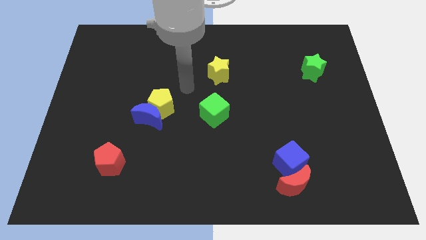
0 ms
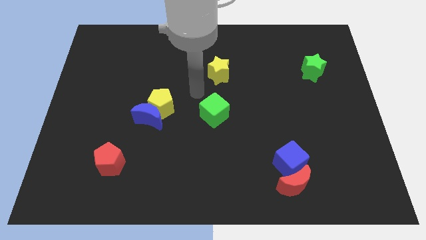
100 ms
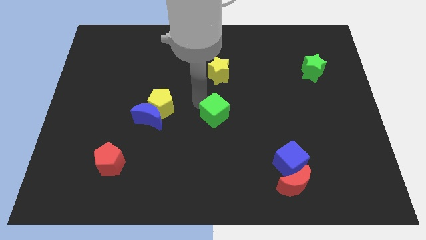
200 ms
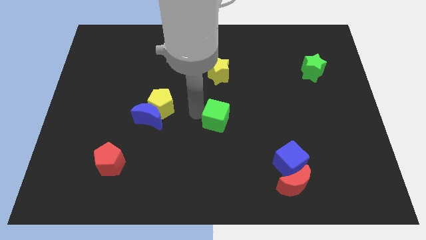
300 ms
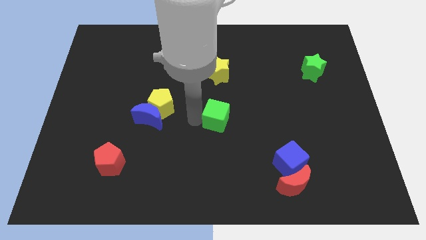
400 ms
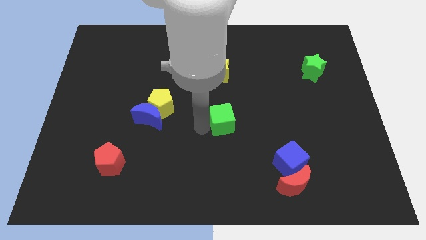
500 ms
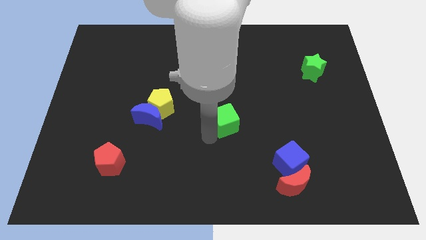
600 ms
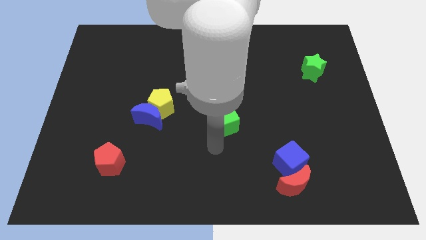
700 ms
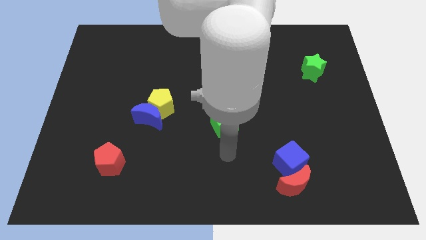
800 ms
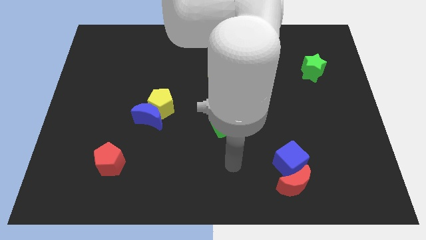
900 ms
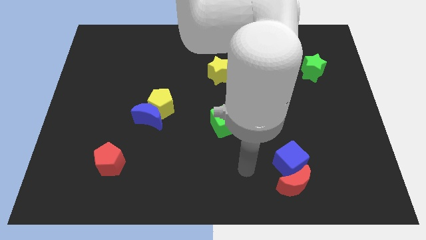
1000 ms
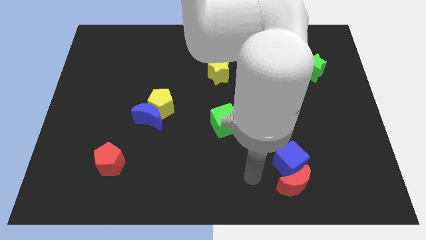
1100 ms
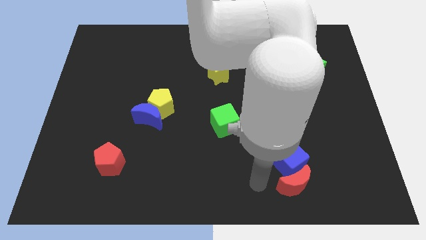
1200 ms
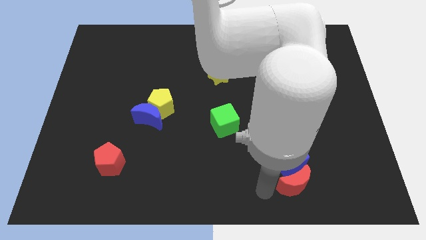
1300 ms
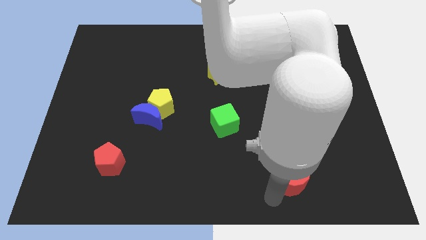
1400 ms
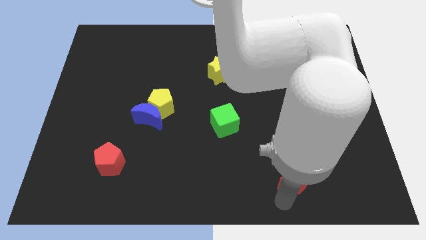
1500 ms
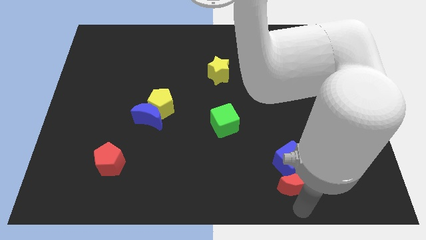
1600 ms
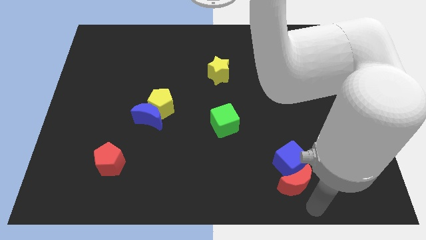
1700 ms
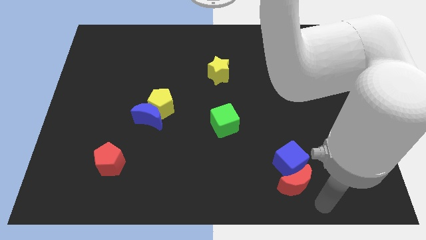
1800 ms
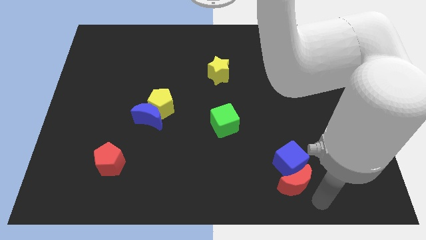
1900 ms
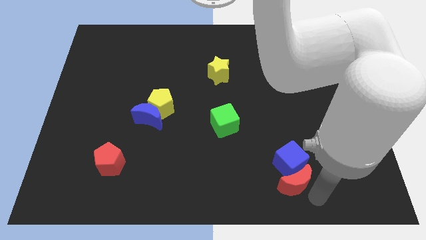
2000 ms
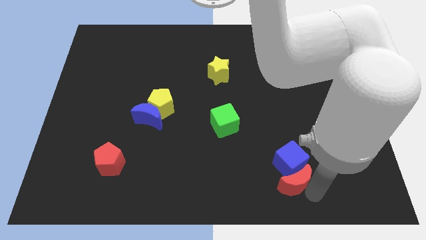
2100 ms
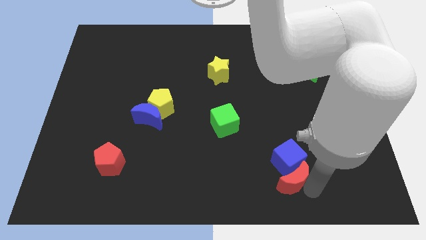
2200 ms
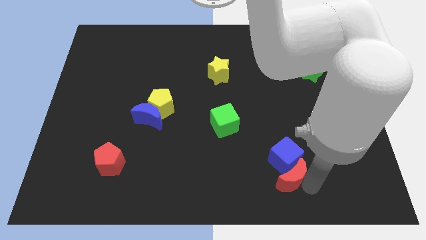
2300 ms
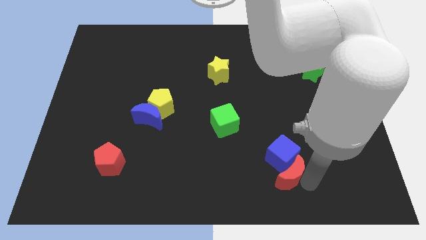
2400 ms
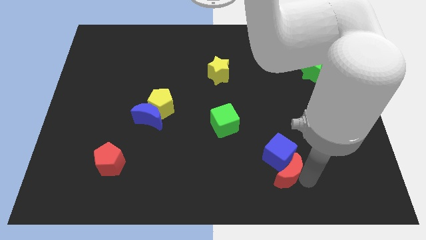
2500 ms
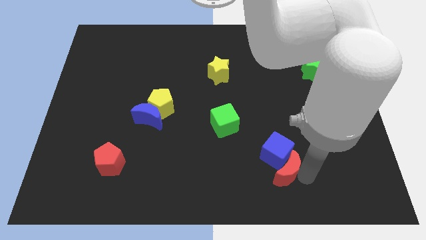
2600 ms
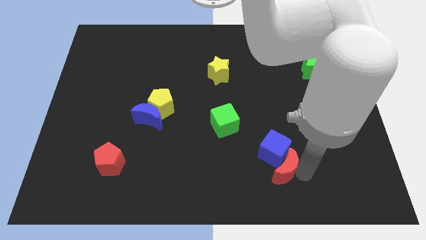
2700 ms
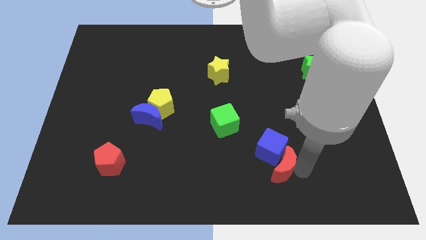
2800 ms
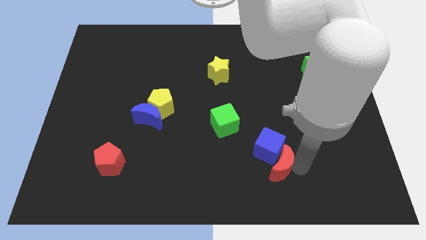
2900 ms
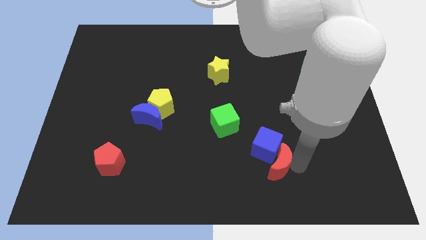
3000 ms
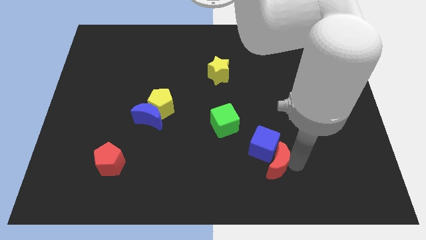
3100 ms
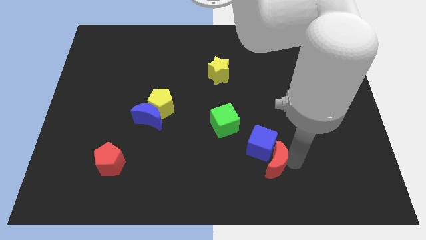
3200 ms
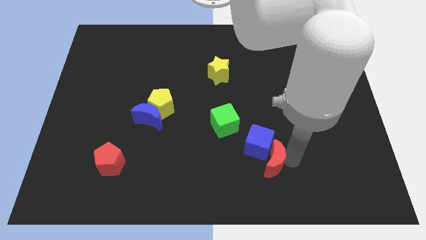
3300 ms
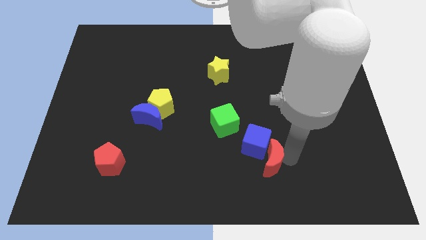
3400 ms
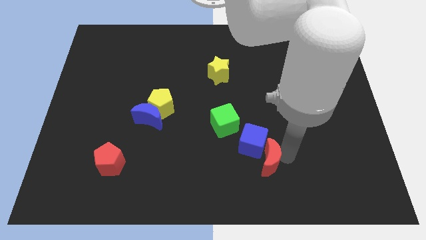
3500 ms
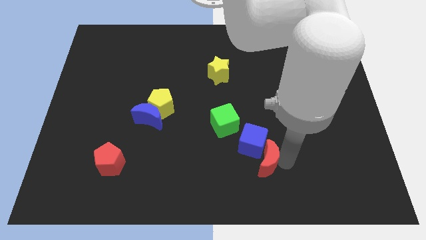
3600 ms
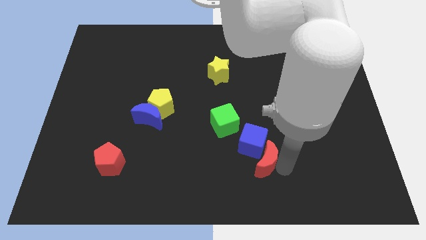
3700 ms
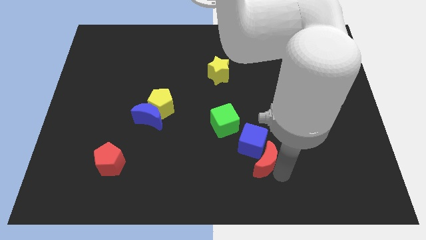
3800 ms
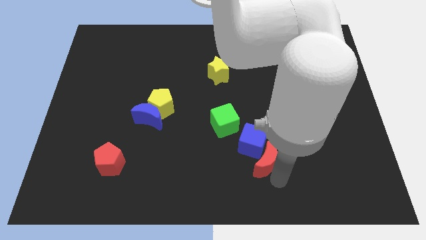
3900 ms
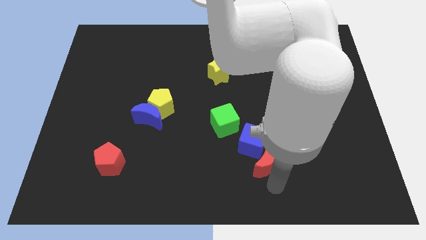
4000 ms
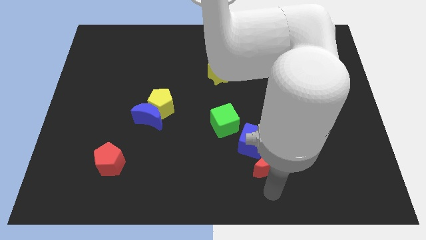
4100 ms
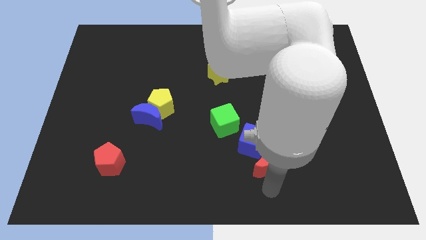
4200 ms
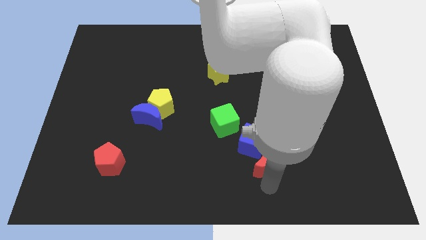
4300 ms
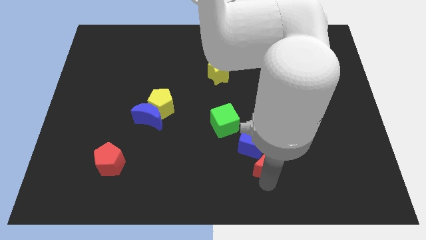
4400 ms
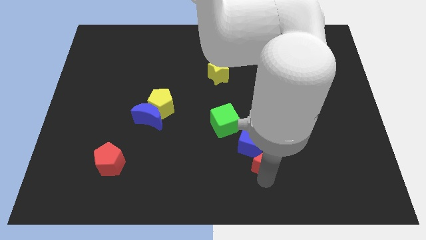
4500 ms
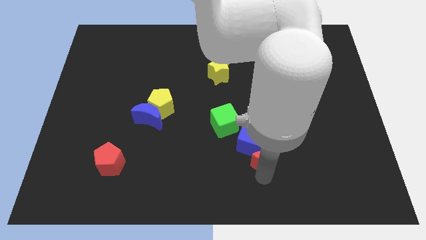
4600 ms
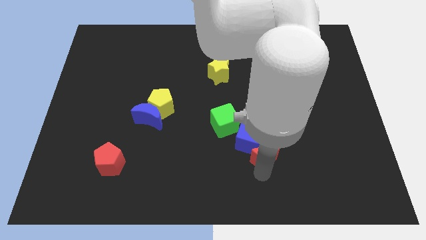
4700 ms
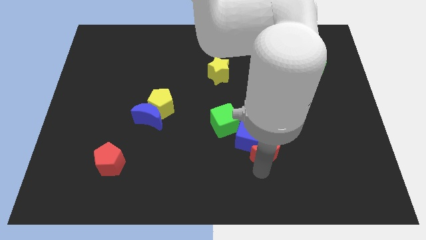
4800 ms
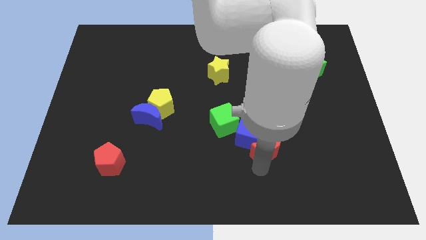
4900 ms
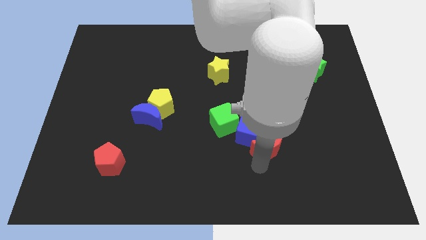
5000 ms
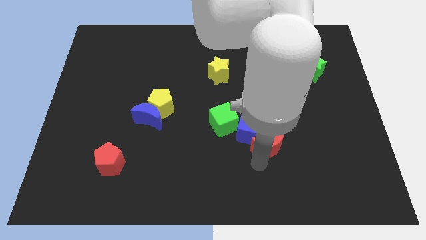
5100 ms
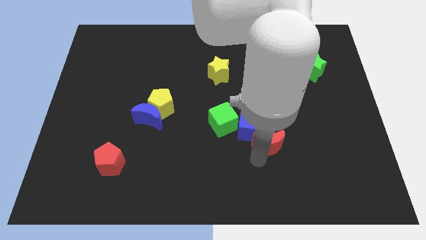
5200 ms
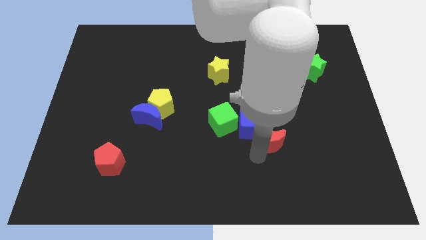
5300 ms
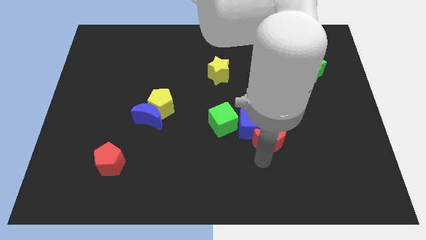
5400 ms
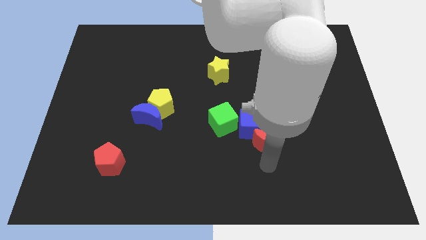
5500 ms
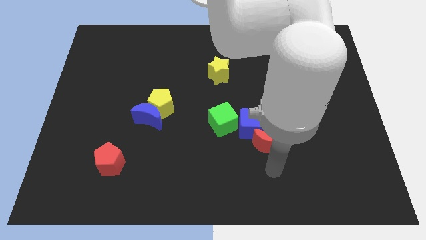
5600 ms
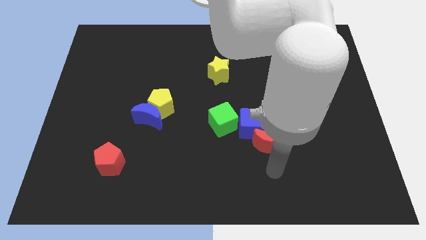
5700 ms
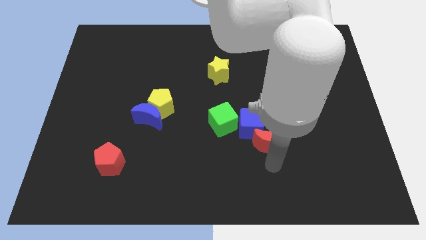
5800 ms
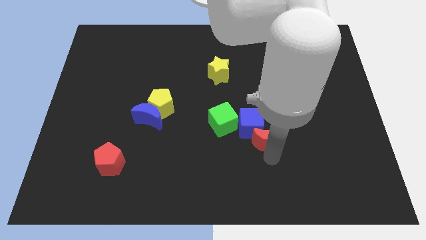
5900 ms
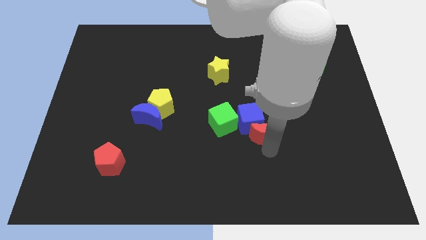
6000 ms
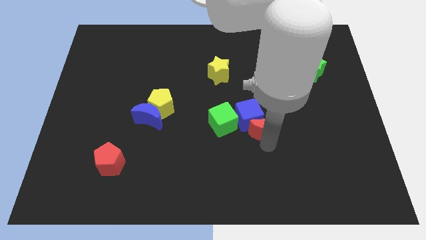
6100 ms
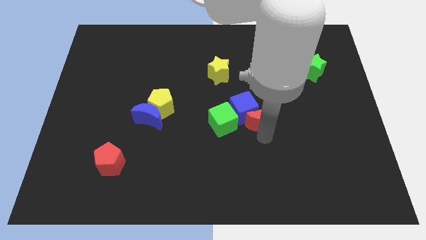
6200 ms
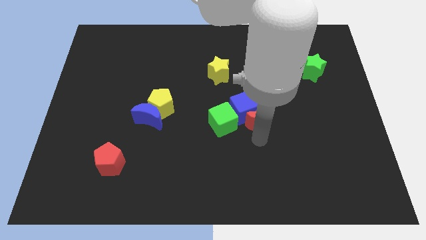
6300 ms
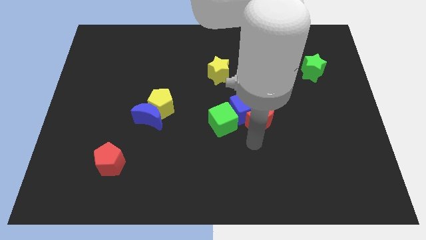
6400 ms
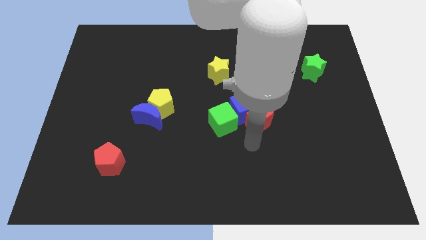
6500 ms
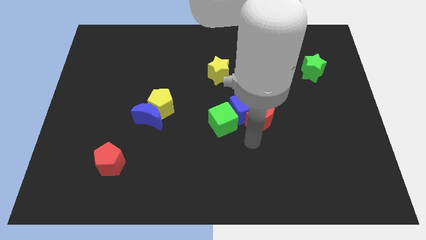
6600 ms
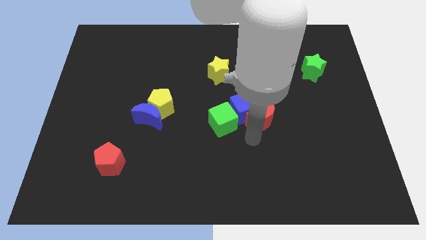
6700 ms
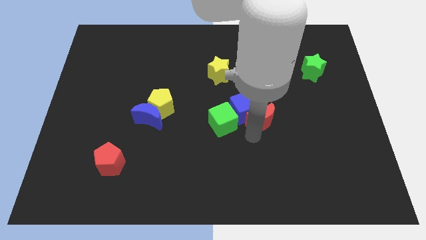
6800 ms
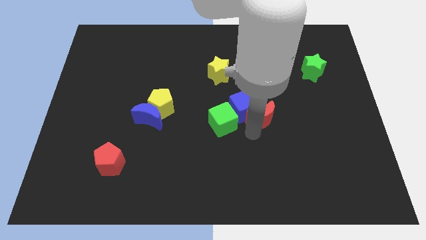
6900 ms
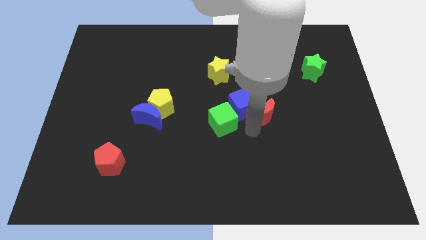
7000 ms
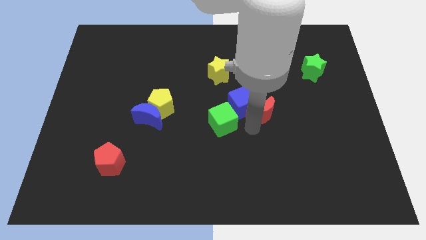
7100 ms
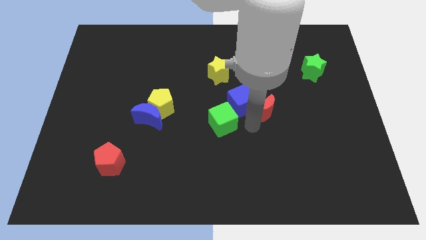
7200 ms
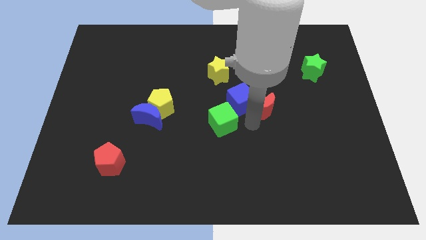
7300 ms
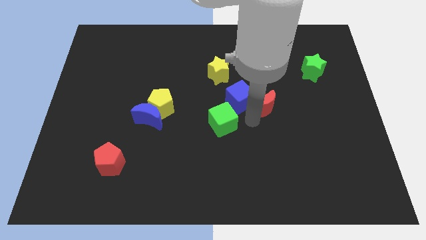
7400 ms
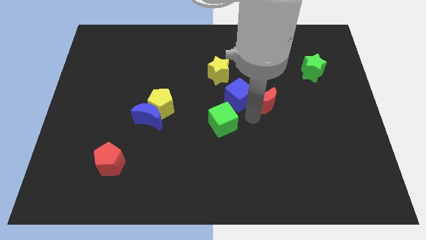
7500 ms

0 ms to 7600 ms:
push the red moon up

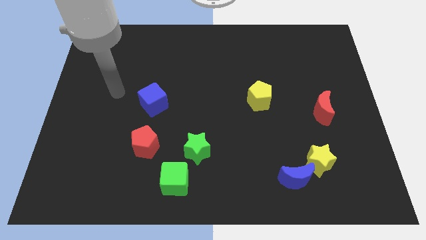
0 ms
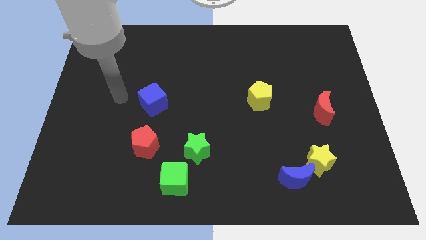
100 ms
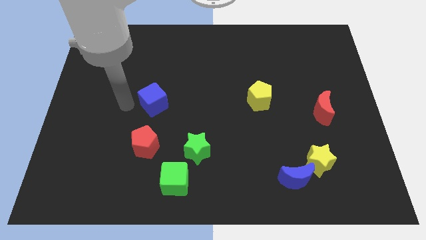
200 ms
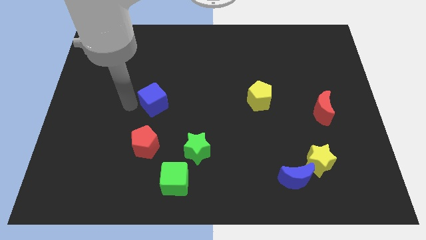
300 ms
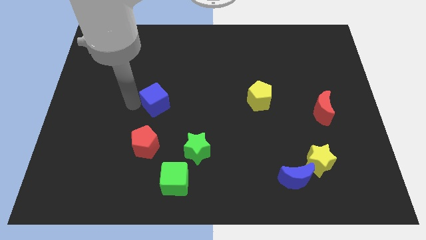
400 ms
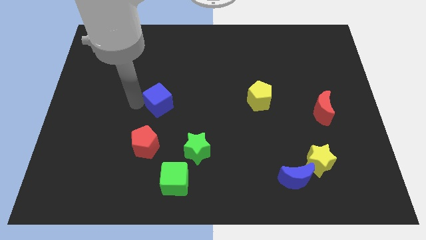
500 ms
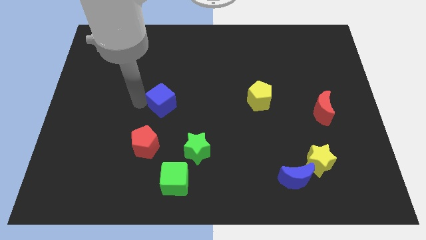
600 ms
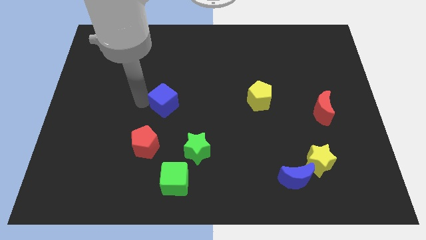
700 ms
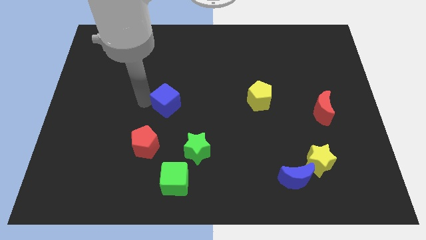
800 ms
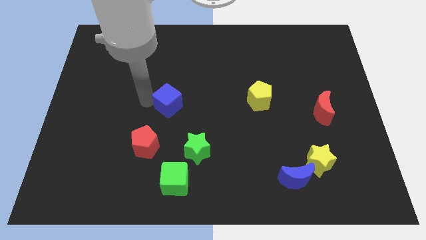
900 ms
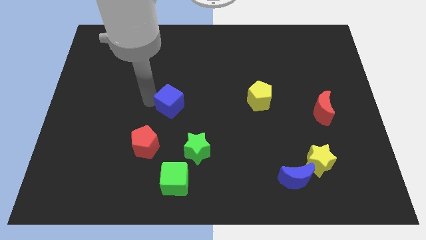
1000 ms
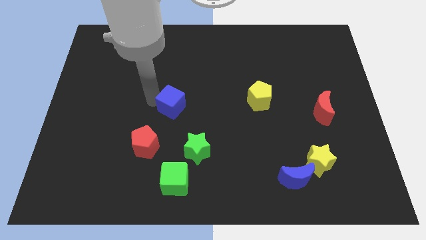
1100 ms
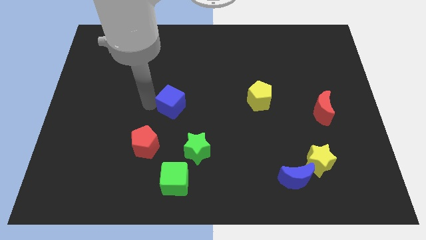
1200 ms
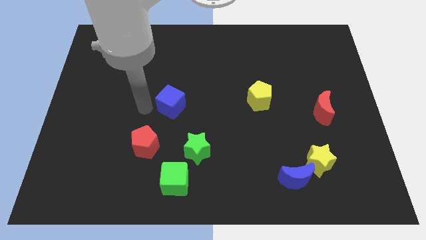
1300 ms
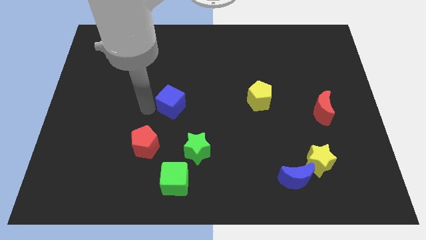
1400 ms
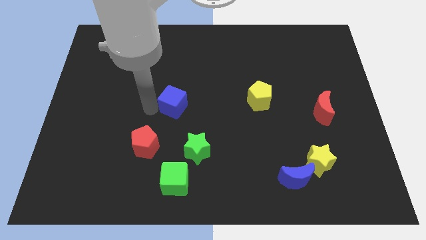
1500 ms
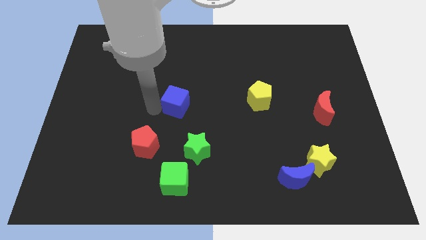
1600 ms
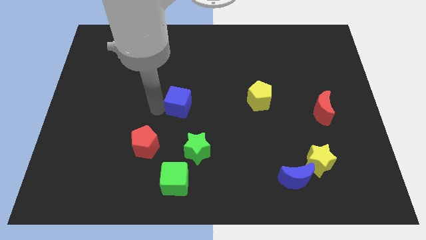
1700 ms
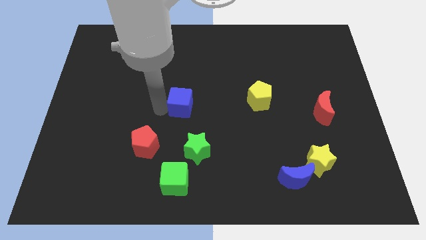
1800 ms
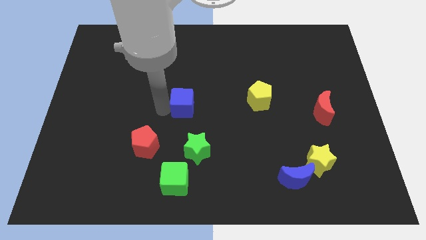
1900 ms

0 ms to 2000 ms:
slide the blue cube a little bit right
